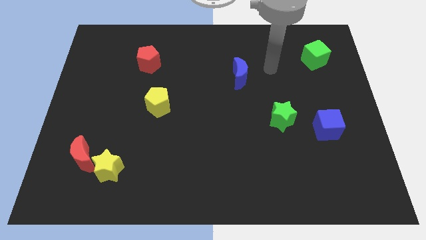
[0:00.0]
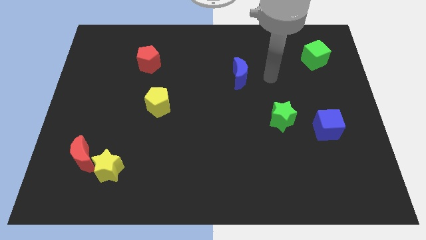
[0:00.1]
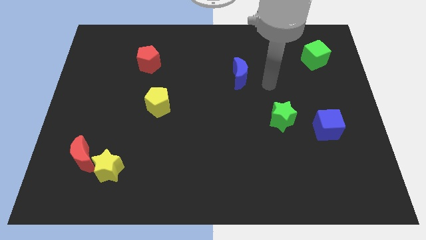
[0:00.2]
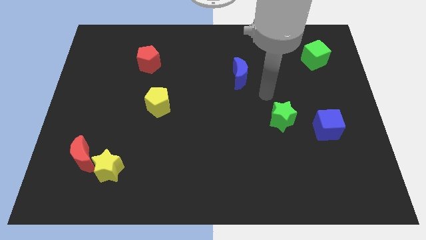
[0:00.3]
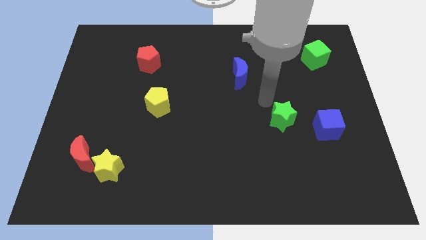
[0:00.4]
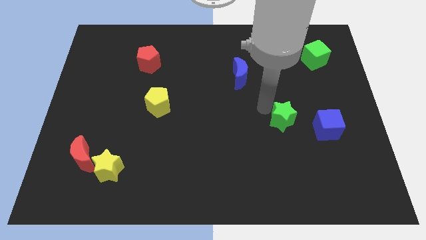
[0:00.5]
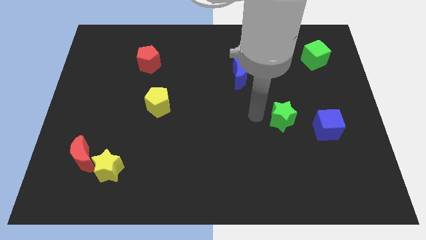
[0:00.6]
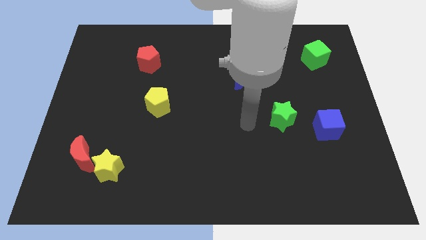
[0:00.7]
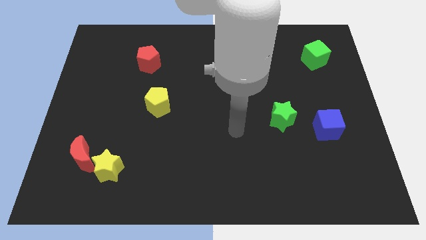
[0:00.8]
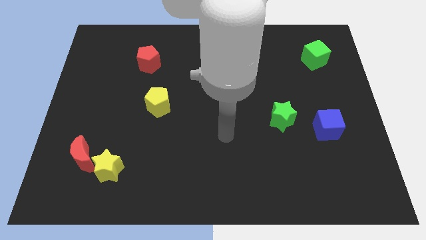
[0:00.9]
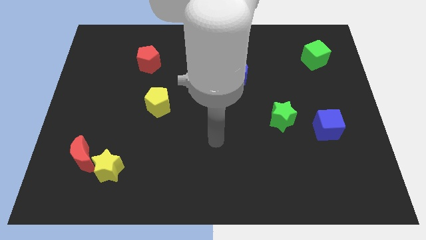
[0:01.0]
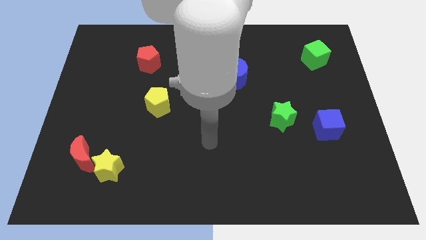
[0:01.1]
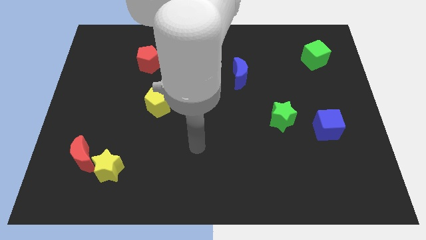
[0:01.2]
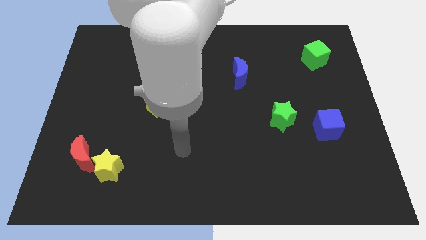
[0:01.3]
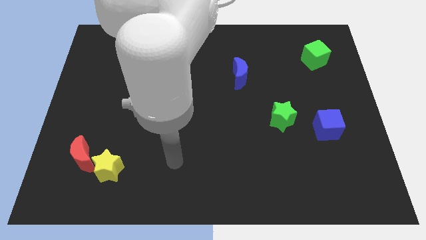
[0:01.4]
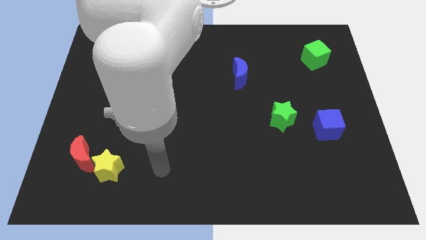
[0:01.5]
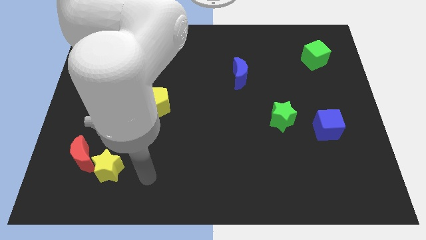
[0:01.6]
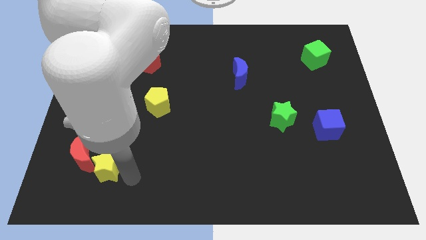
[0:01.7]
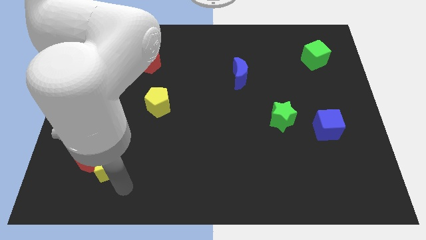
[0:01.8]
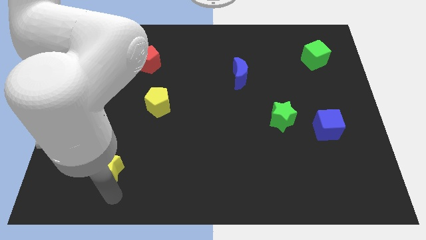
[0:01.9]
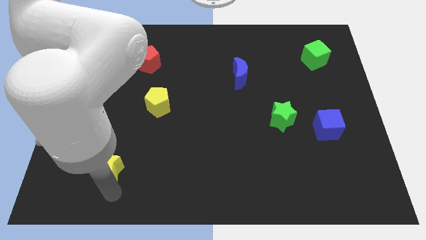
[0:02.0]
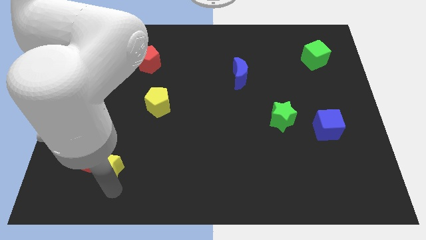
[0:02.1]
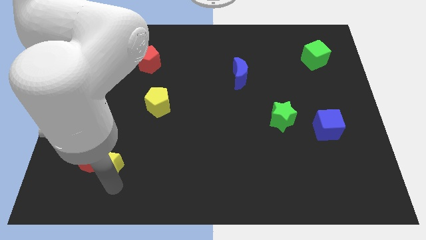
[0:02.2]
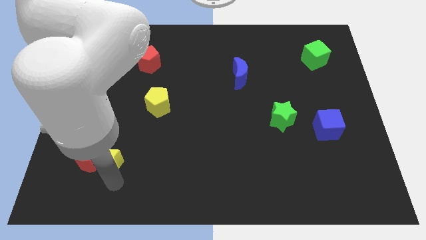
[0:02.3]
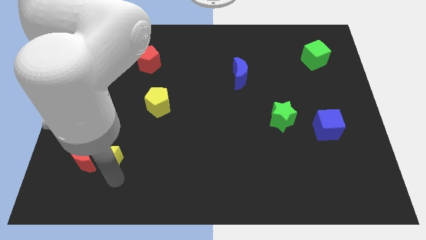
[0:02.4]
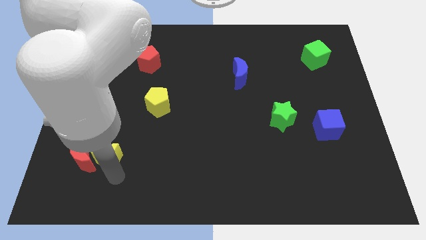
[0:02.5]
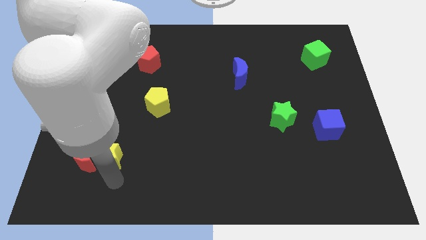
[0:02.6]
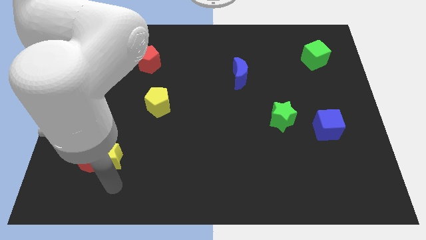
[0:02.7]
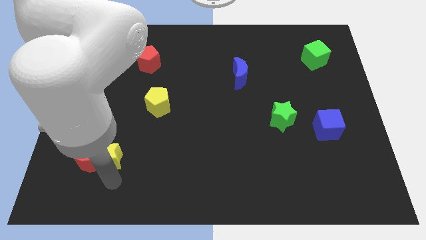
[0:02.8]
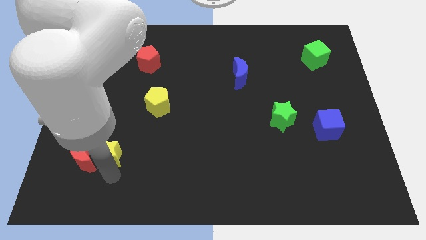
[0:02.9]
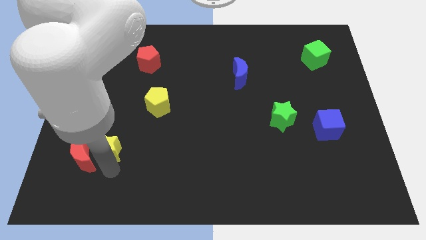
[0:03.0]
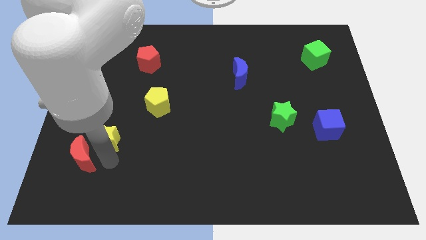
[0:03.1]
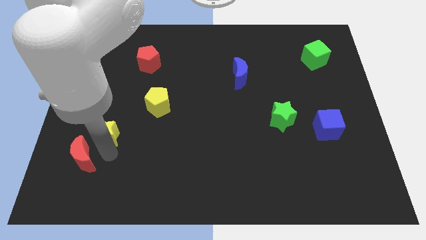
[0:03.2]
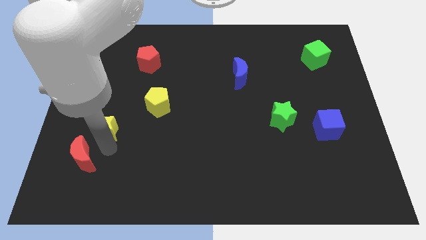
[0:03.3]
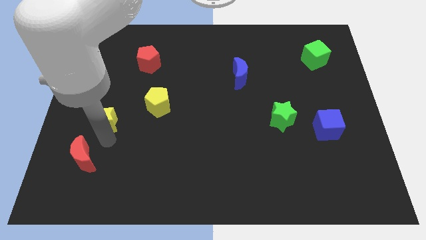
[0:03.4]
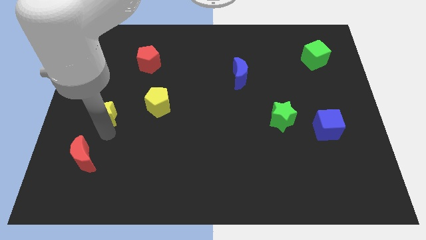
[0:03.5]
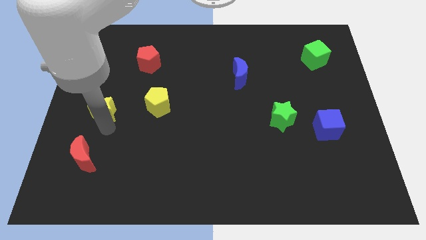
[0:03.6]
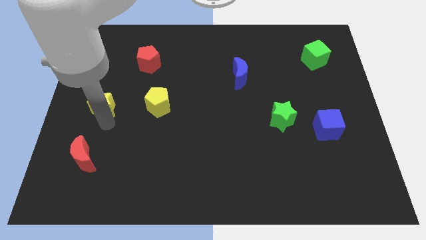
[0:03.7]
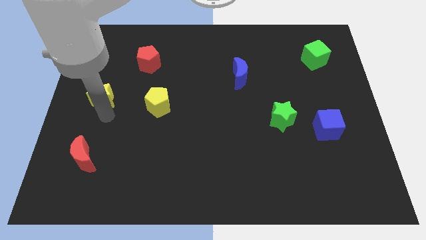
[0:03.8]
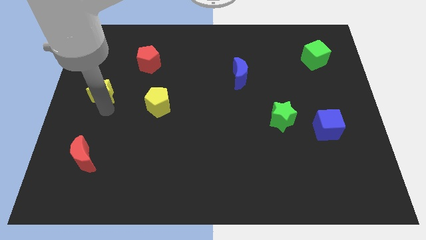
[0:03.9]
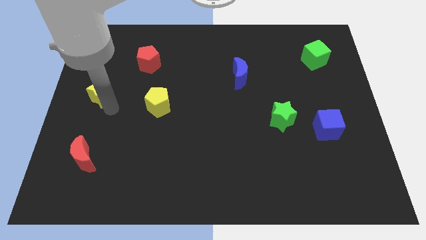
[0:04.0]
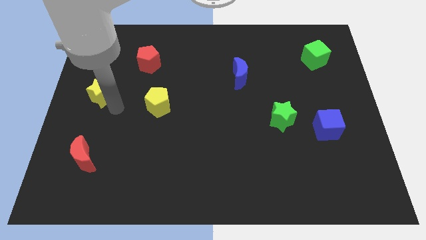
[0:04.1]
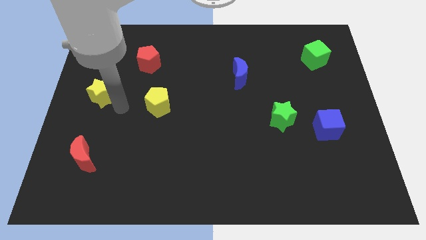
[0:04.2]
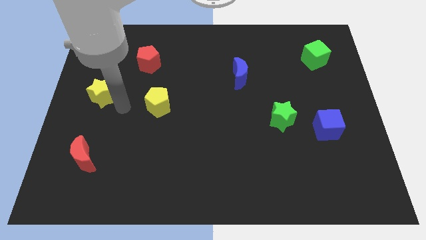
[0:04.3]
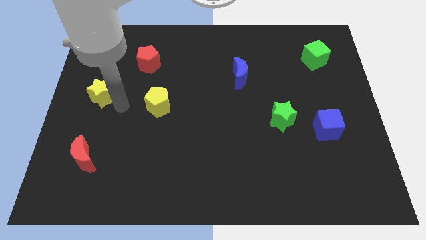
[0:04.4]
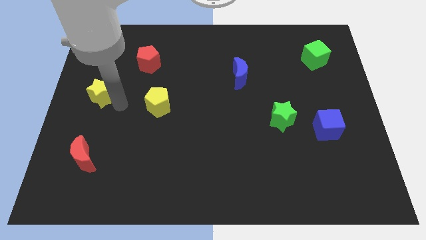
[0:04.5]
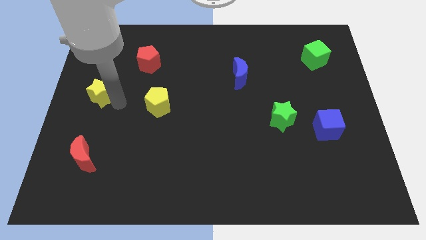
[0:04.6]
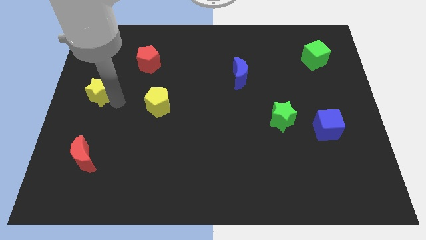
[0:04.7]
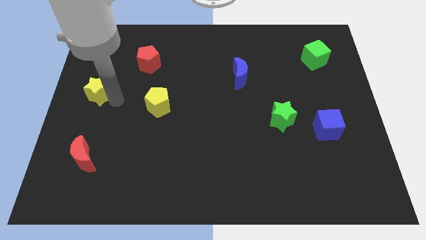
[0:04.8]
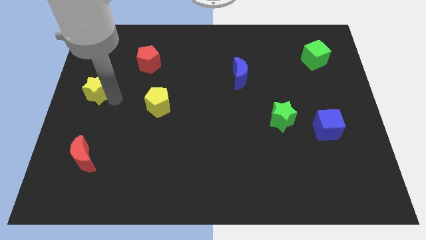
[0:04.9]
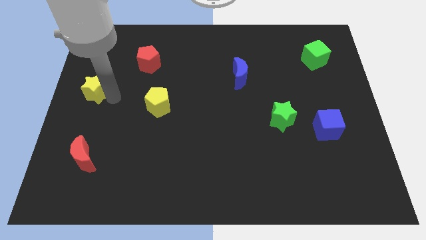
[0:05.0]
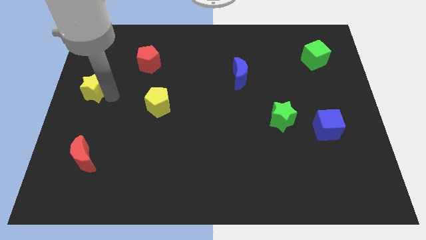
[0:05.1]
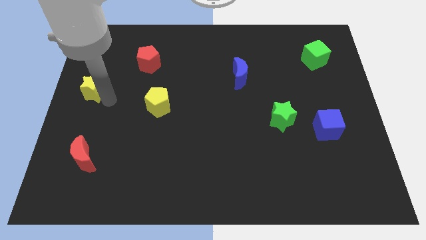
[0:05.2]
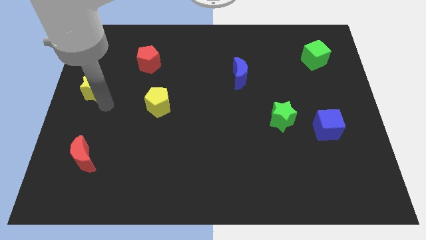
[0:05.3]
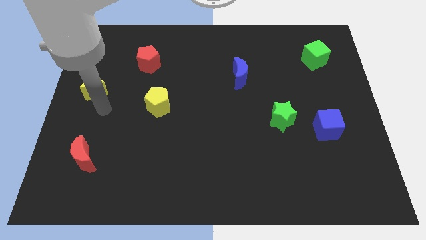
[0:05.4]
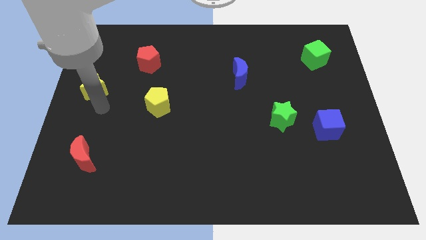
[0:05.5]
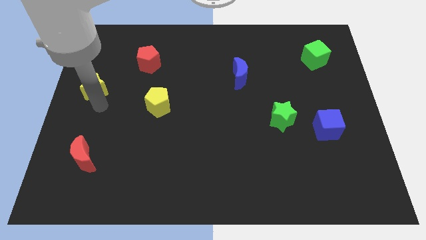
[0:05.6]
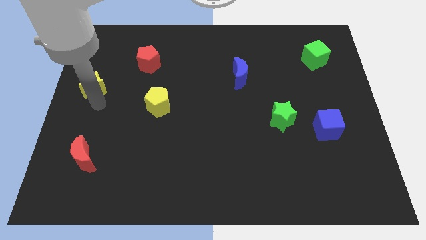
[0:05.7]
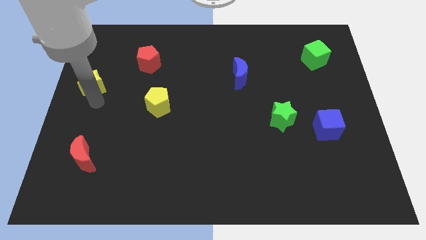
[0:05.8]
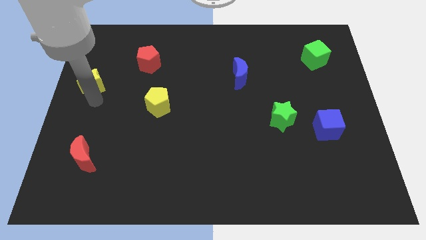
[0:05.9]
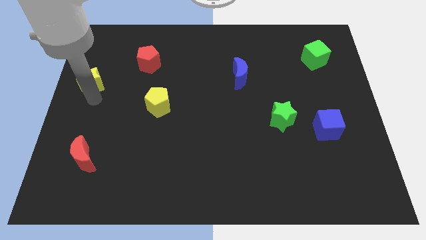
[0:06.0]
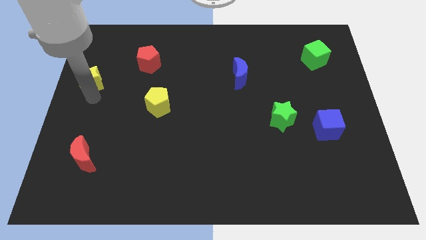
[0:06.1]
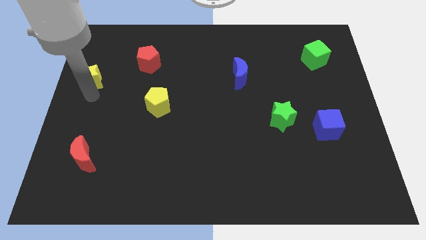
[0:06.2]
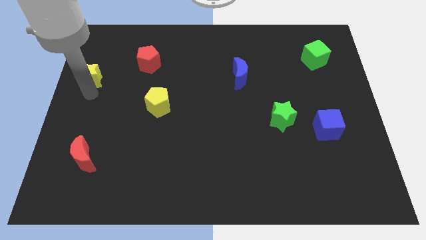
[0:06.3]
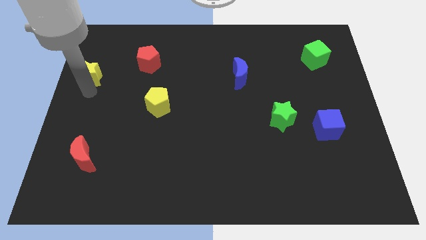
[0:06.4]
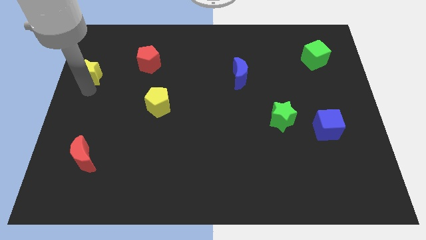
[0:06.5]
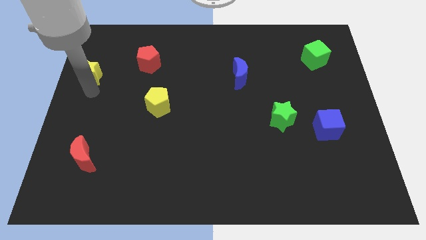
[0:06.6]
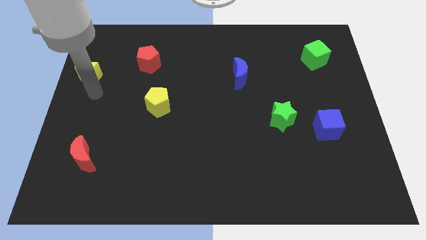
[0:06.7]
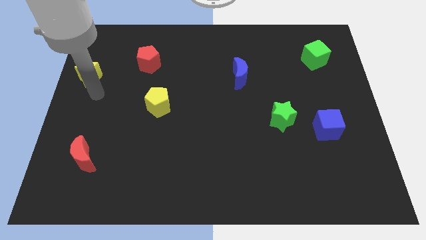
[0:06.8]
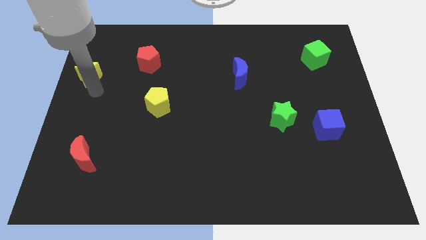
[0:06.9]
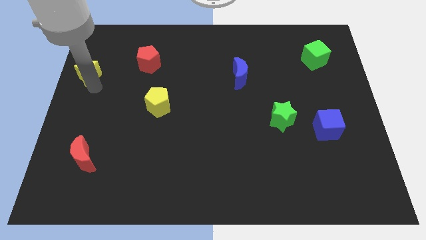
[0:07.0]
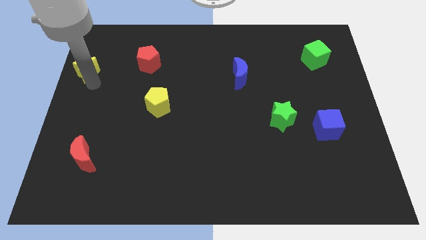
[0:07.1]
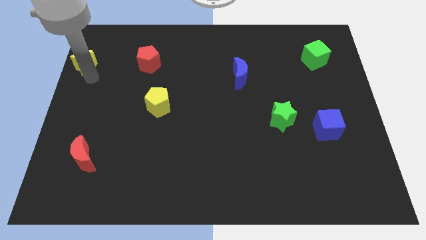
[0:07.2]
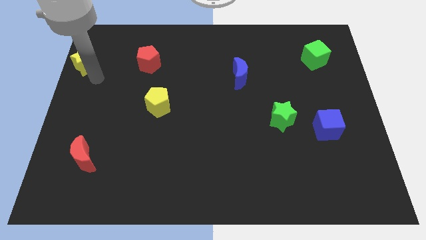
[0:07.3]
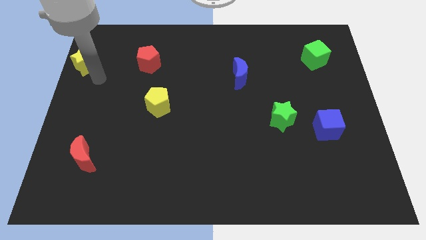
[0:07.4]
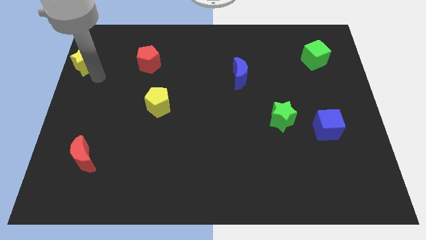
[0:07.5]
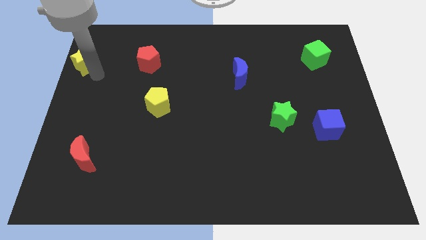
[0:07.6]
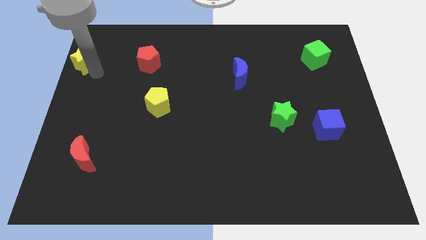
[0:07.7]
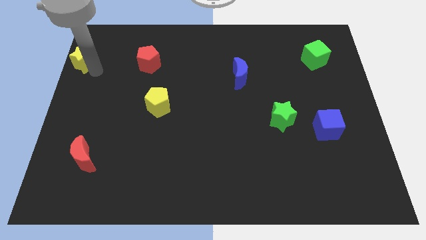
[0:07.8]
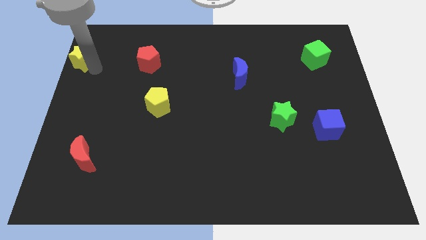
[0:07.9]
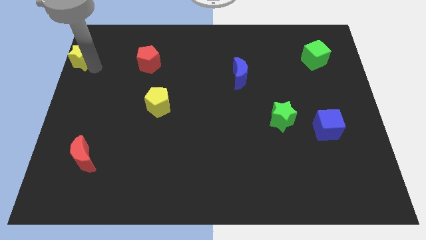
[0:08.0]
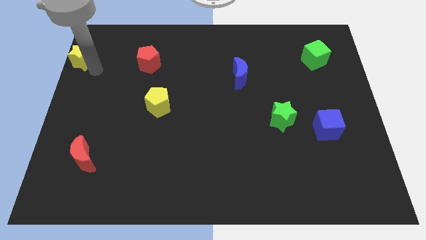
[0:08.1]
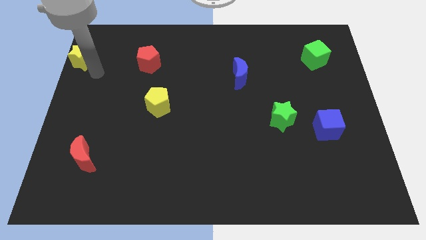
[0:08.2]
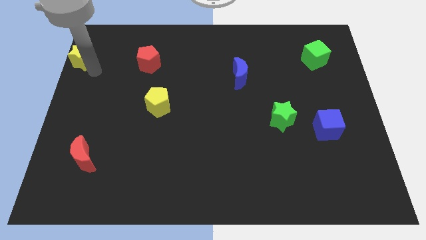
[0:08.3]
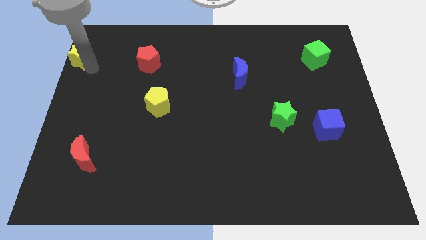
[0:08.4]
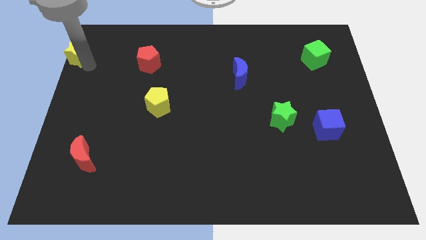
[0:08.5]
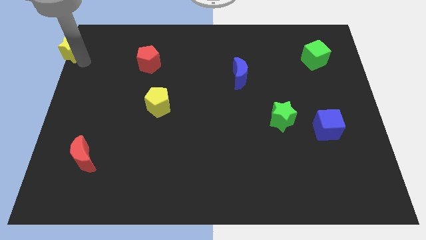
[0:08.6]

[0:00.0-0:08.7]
move the yellow star to the top left
